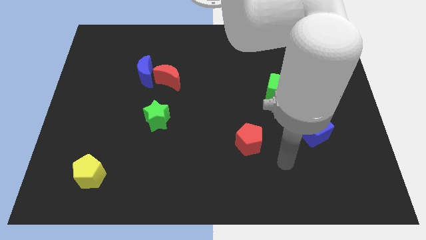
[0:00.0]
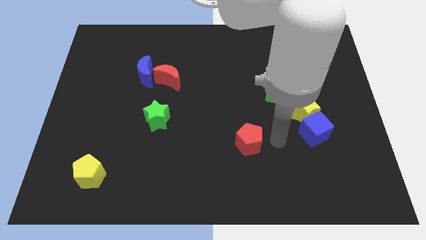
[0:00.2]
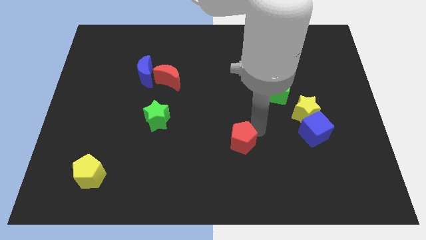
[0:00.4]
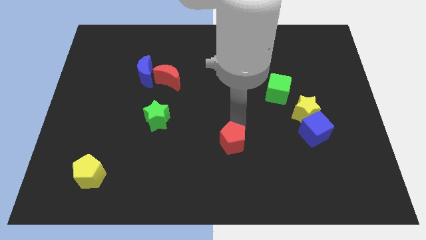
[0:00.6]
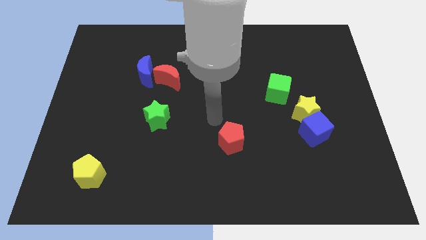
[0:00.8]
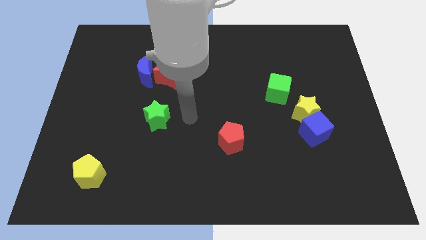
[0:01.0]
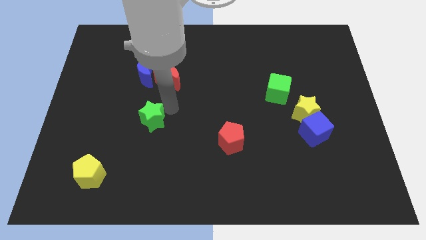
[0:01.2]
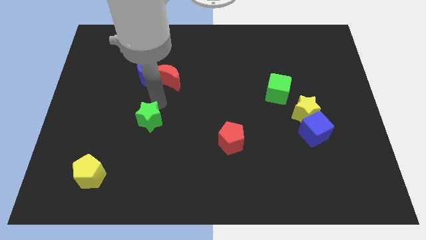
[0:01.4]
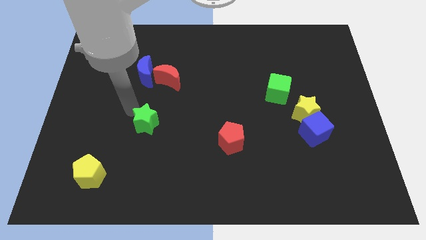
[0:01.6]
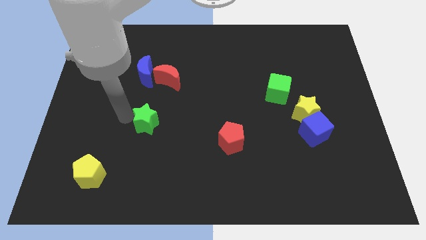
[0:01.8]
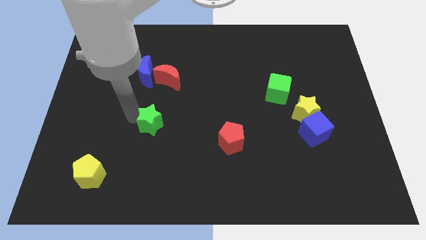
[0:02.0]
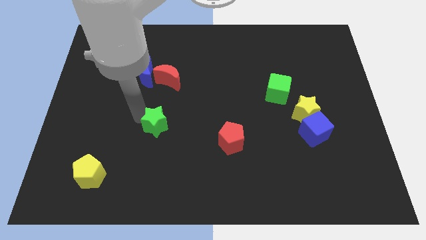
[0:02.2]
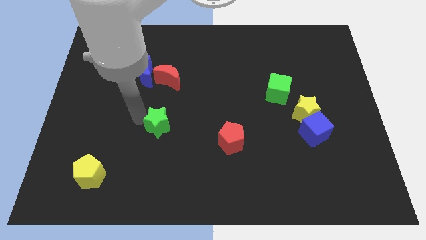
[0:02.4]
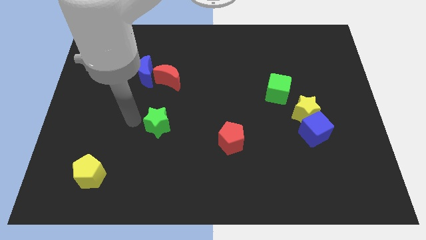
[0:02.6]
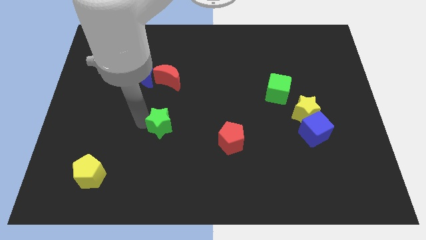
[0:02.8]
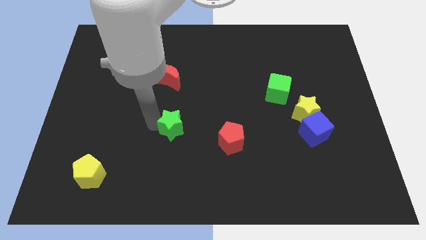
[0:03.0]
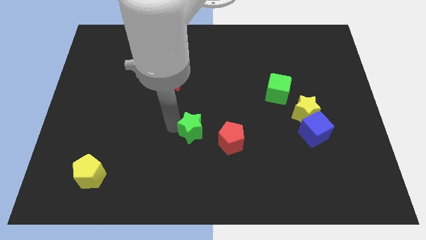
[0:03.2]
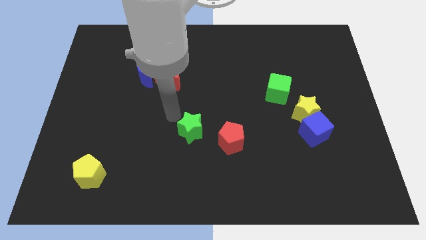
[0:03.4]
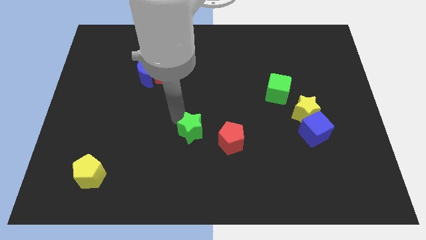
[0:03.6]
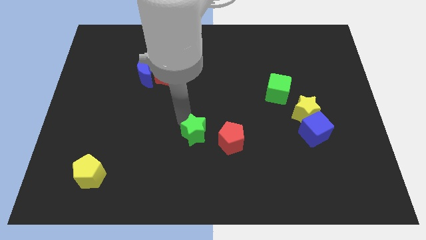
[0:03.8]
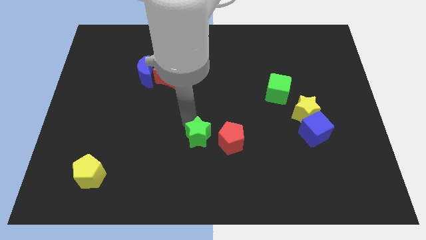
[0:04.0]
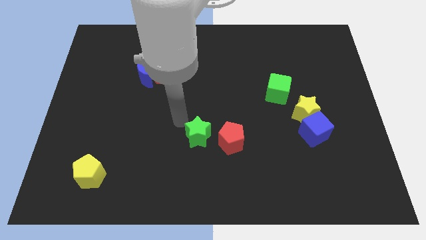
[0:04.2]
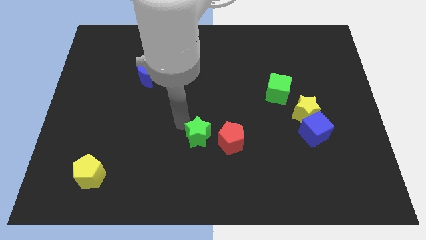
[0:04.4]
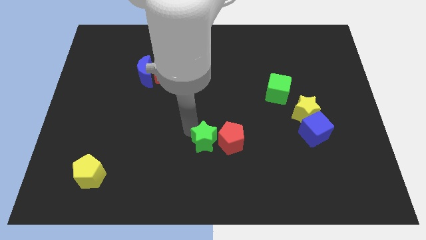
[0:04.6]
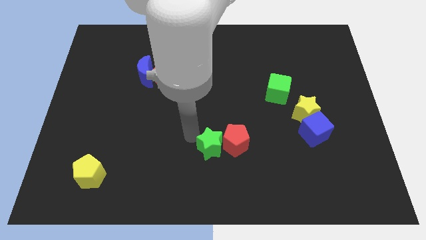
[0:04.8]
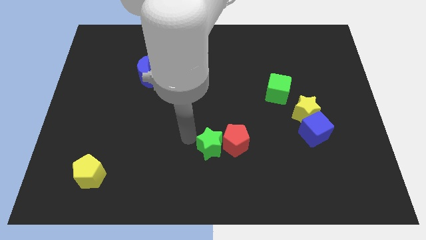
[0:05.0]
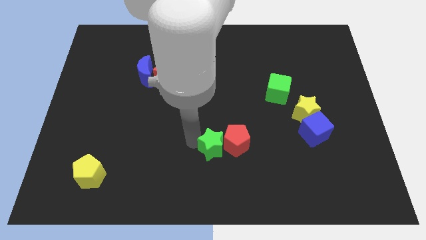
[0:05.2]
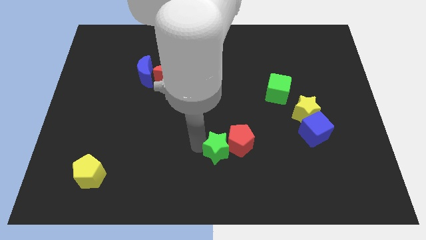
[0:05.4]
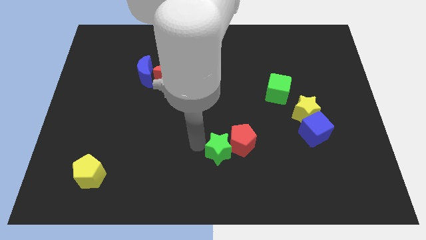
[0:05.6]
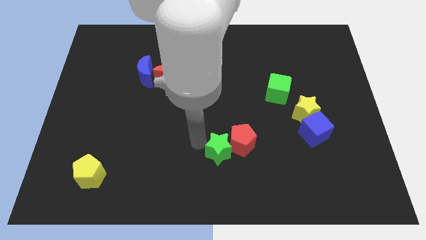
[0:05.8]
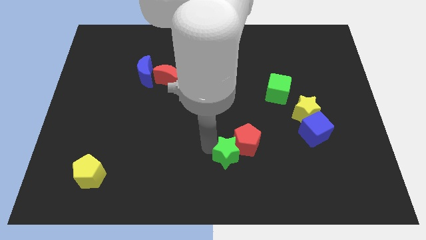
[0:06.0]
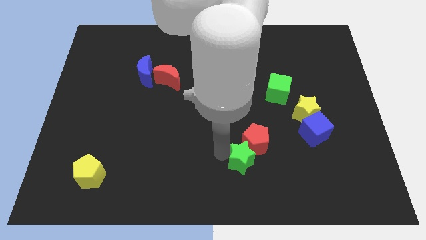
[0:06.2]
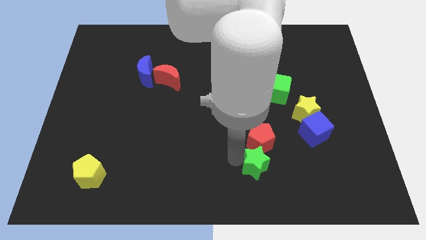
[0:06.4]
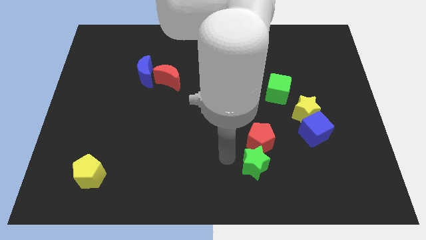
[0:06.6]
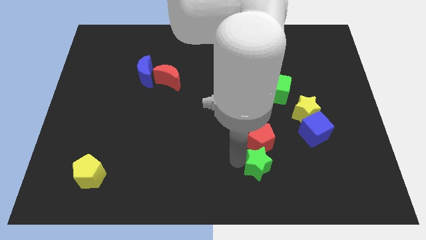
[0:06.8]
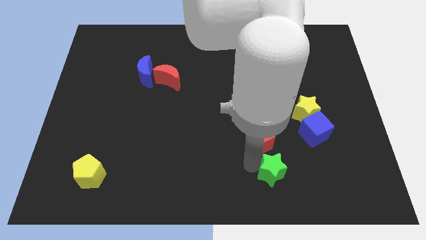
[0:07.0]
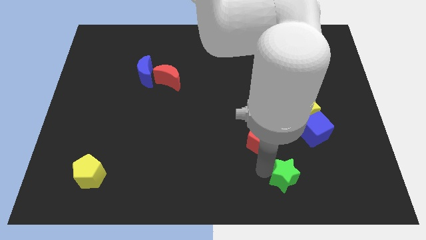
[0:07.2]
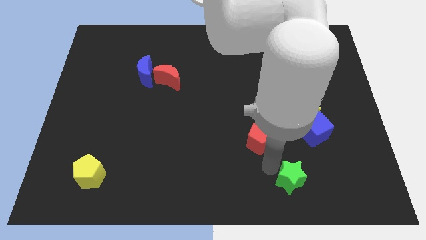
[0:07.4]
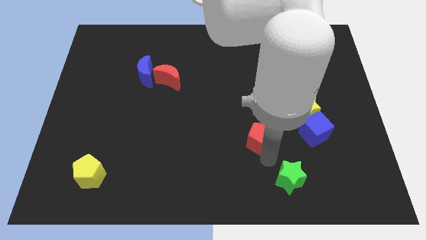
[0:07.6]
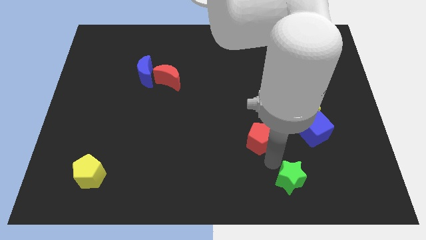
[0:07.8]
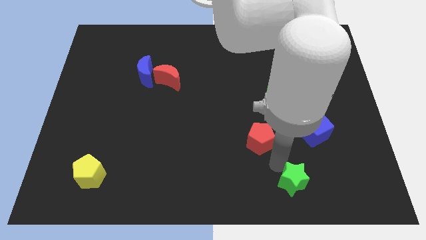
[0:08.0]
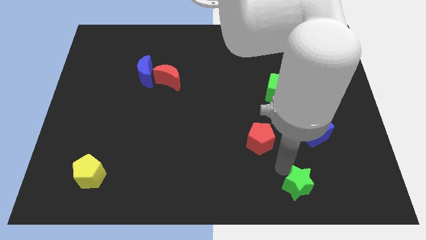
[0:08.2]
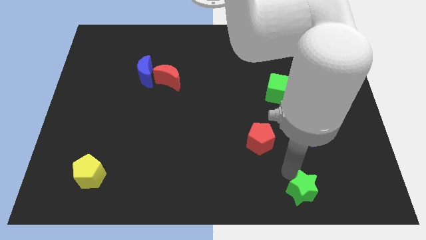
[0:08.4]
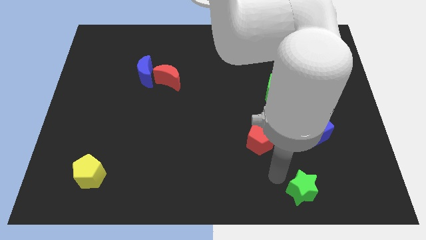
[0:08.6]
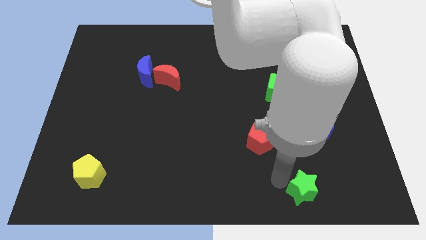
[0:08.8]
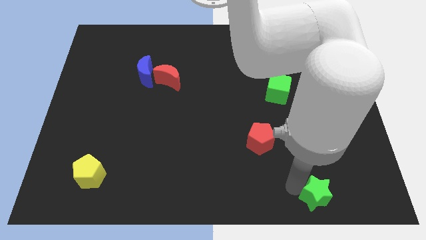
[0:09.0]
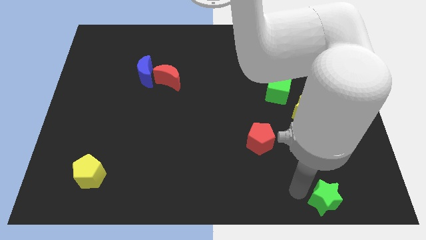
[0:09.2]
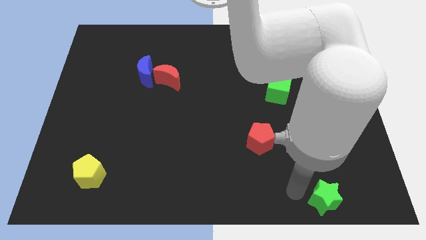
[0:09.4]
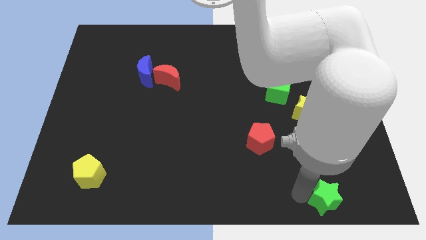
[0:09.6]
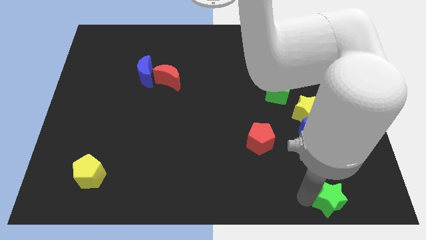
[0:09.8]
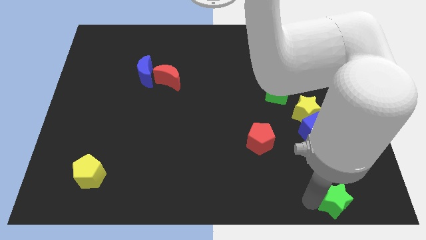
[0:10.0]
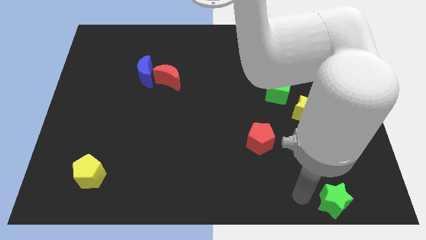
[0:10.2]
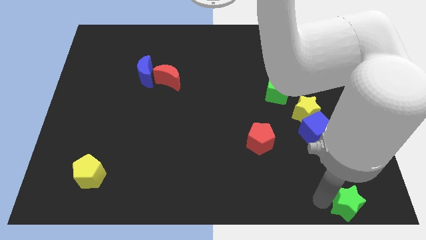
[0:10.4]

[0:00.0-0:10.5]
slide the green star to the bottom right

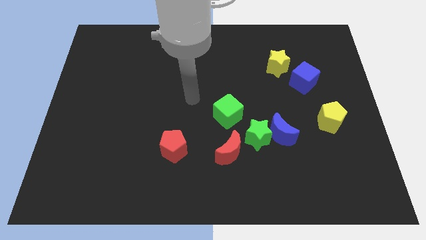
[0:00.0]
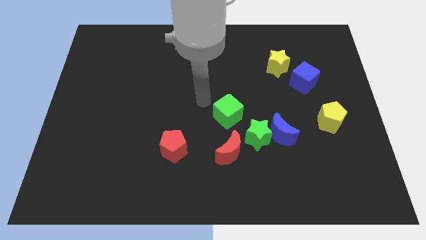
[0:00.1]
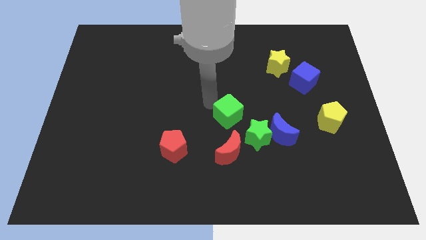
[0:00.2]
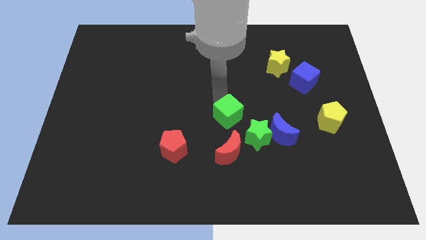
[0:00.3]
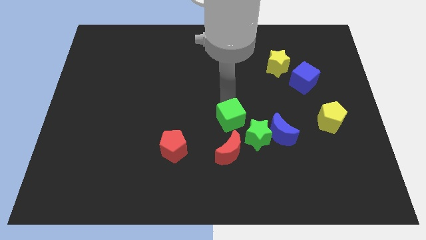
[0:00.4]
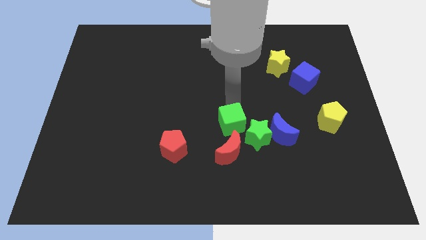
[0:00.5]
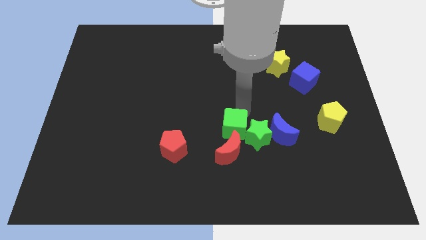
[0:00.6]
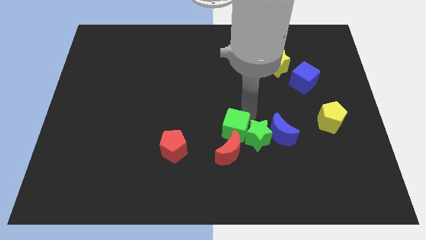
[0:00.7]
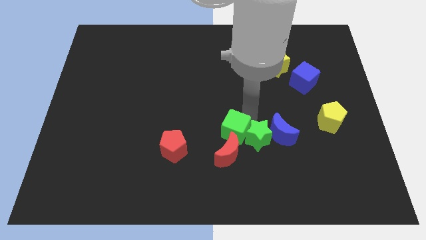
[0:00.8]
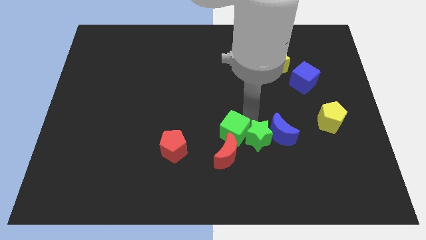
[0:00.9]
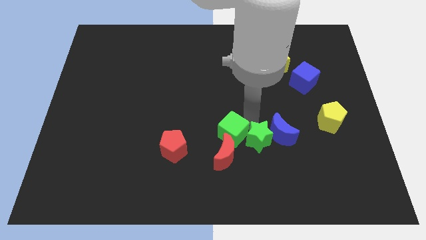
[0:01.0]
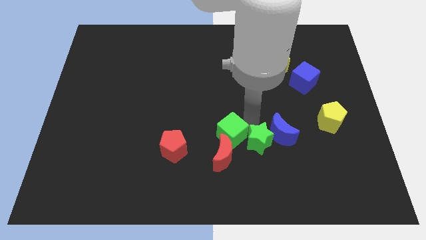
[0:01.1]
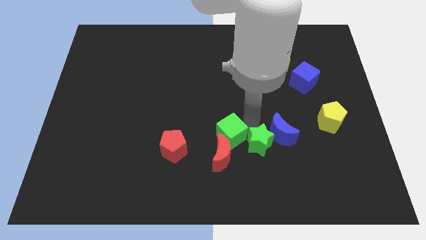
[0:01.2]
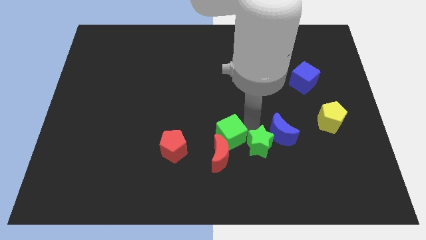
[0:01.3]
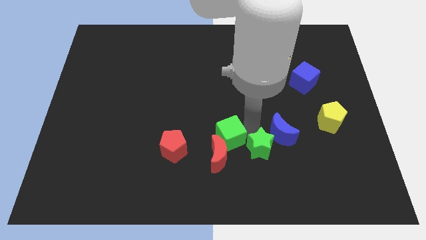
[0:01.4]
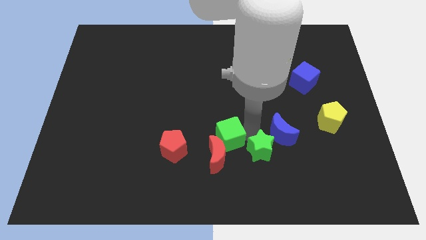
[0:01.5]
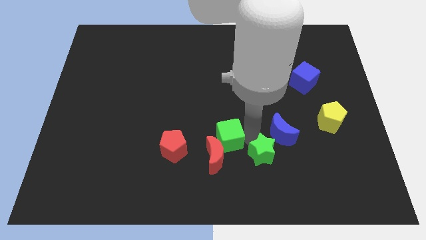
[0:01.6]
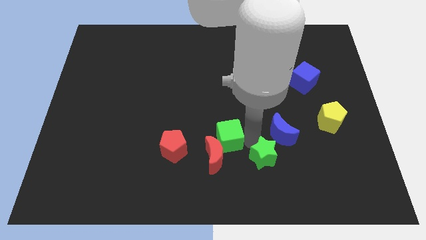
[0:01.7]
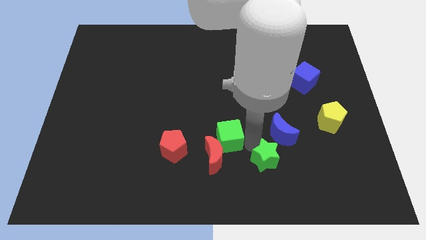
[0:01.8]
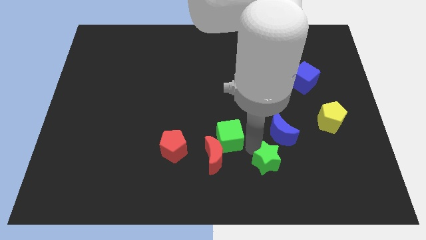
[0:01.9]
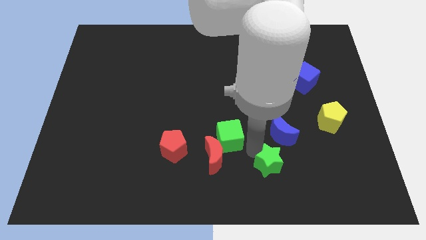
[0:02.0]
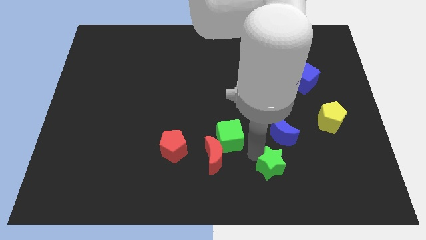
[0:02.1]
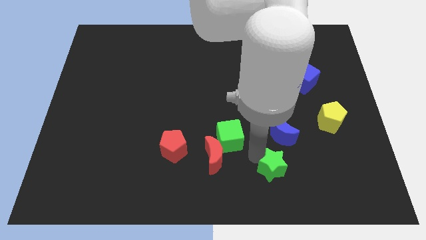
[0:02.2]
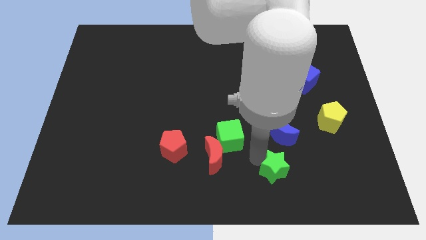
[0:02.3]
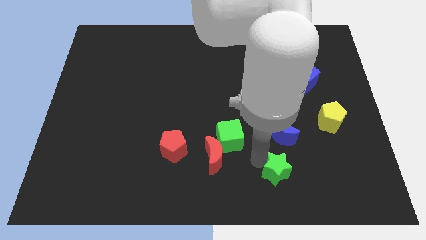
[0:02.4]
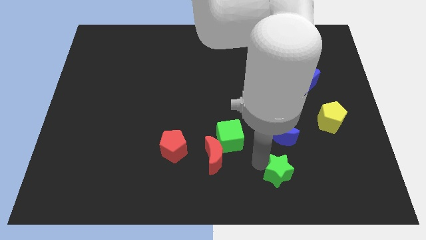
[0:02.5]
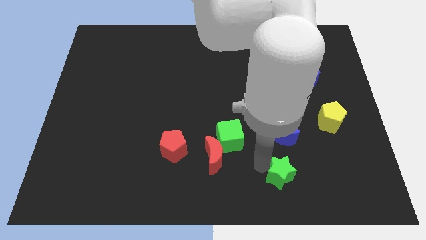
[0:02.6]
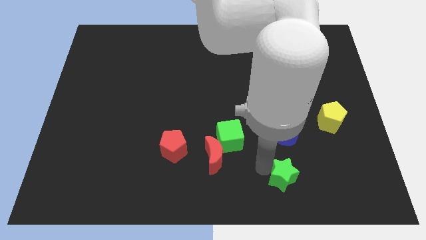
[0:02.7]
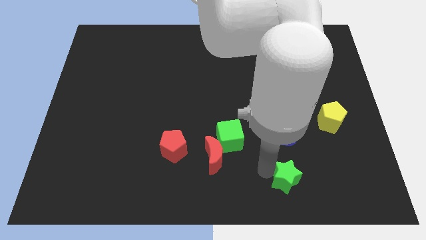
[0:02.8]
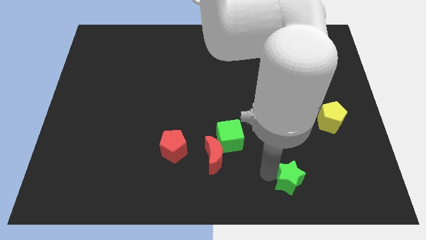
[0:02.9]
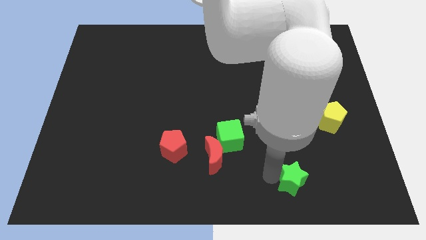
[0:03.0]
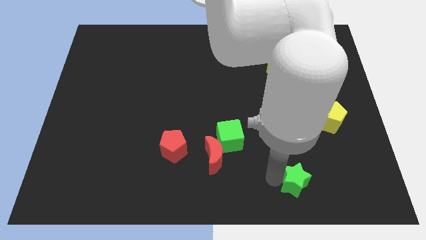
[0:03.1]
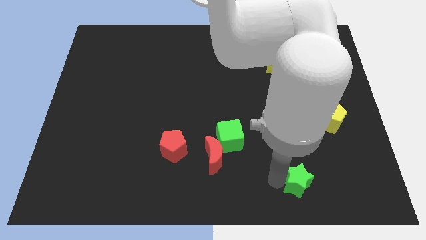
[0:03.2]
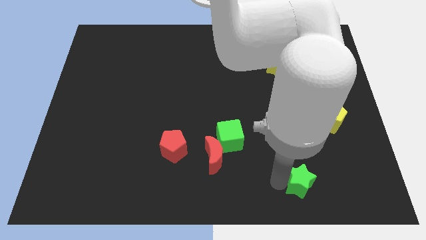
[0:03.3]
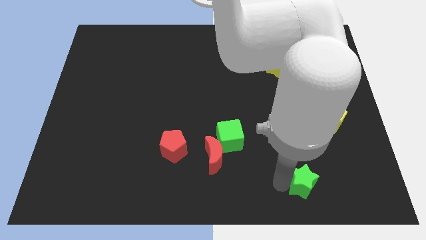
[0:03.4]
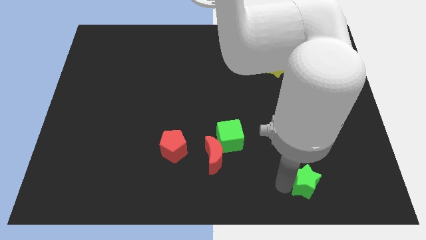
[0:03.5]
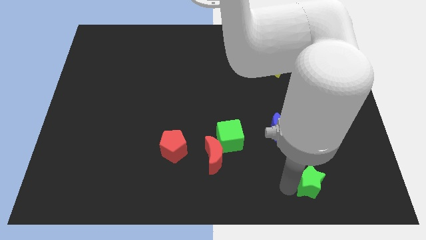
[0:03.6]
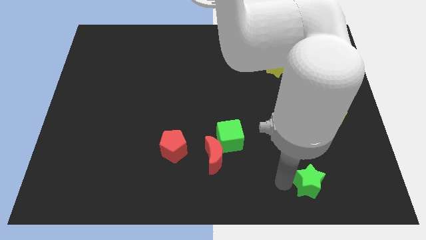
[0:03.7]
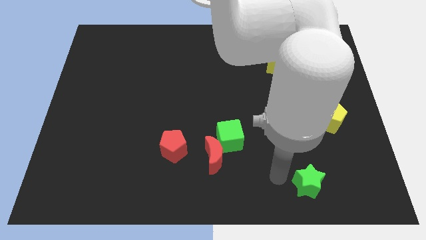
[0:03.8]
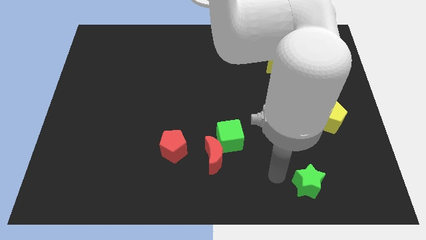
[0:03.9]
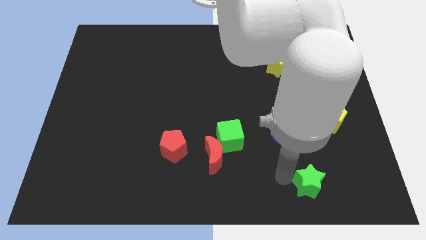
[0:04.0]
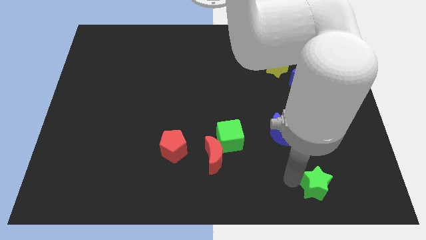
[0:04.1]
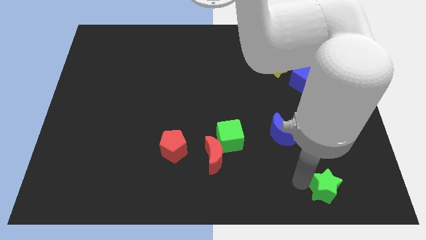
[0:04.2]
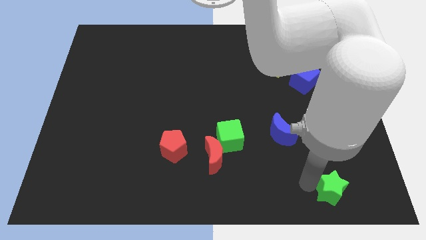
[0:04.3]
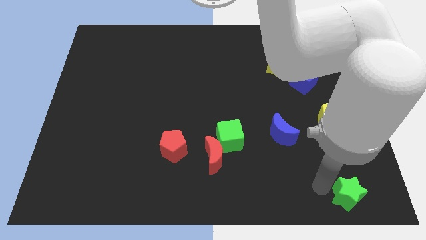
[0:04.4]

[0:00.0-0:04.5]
slide the green star to the bottom right of the board
